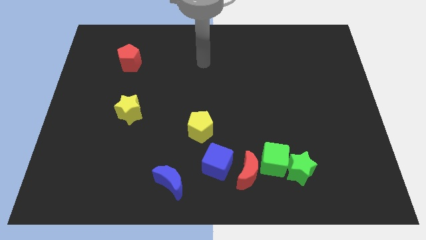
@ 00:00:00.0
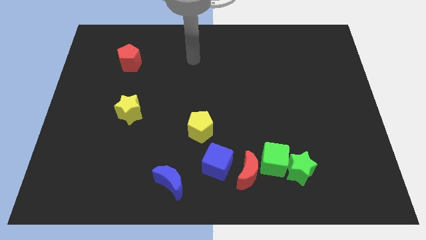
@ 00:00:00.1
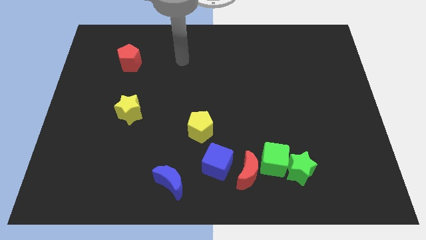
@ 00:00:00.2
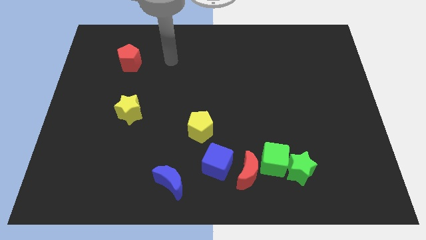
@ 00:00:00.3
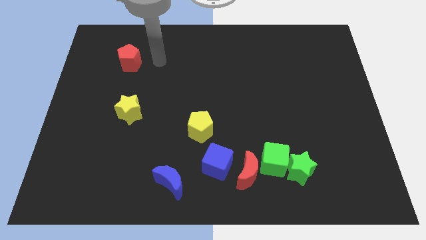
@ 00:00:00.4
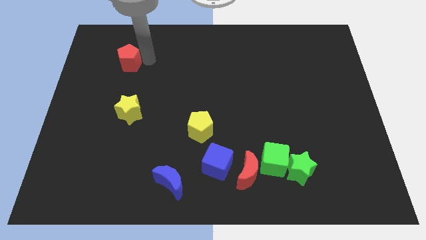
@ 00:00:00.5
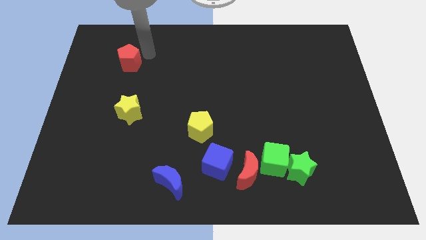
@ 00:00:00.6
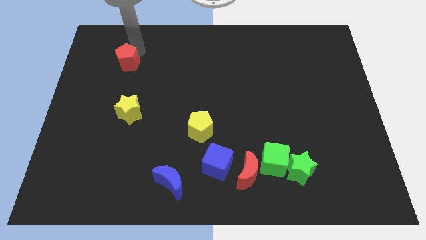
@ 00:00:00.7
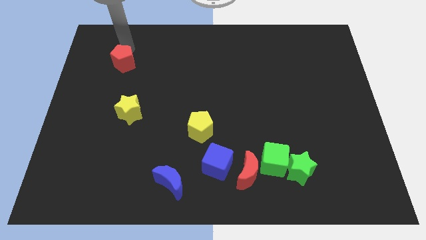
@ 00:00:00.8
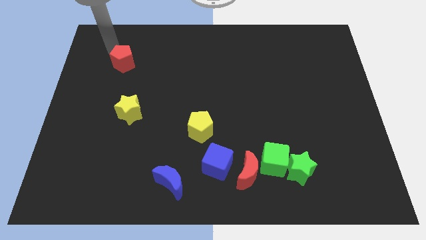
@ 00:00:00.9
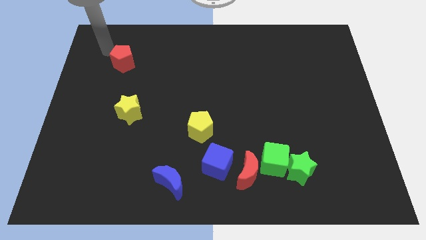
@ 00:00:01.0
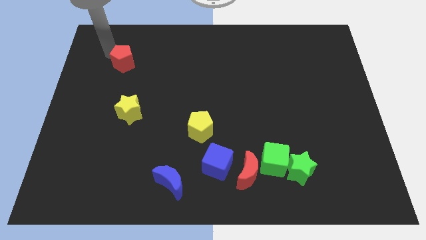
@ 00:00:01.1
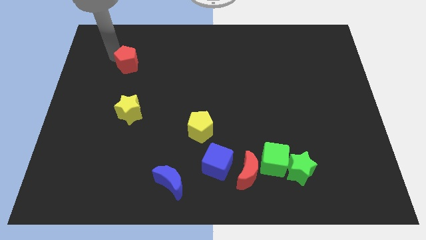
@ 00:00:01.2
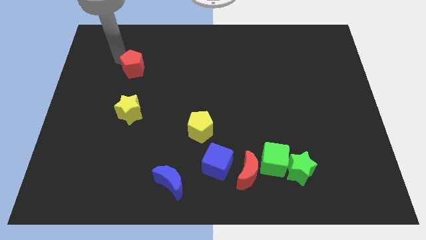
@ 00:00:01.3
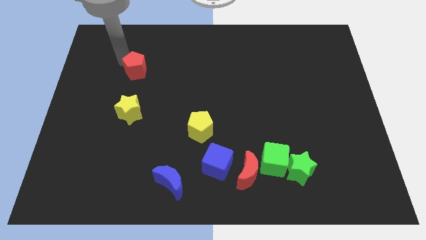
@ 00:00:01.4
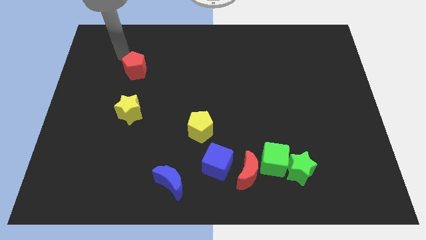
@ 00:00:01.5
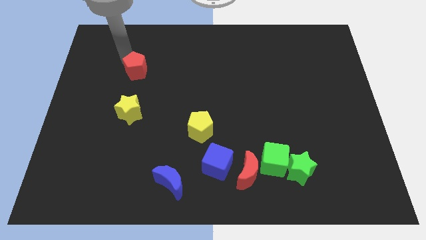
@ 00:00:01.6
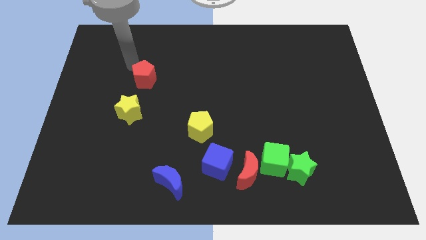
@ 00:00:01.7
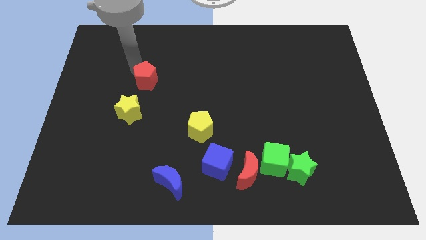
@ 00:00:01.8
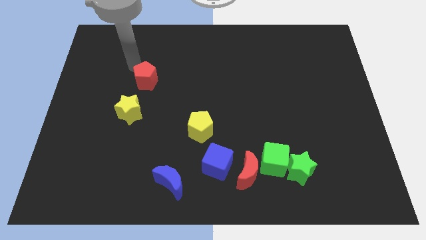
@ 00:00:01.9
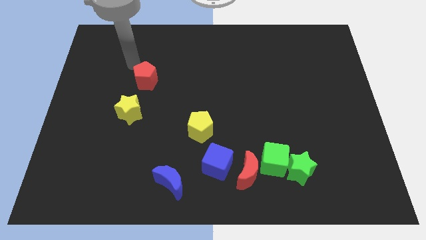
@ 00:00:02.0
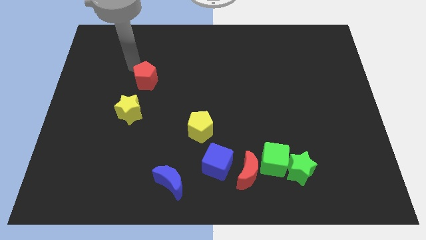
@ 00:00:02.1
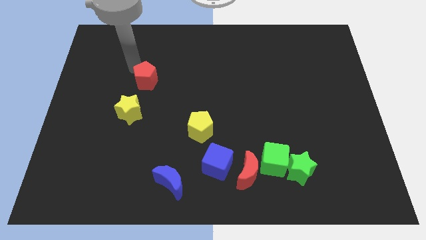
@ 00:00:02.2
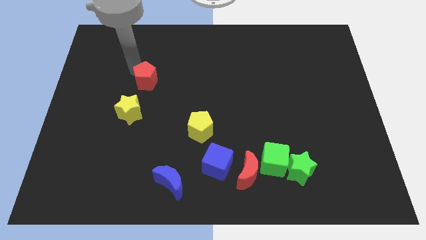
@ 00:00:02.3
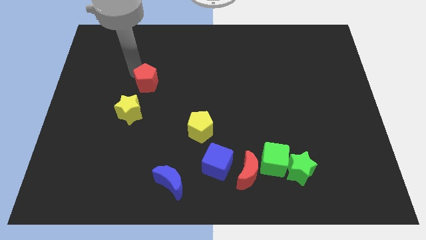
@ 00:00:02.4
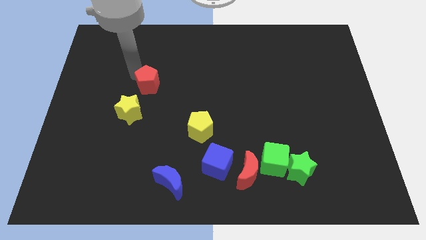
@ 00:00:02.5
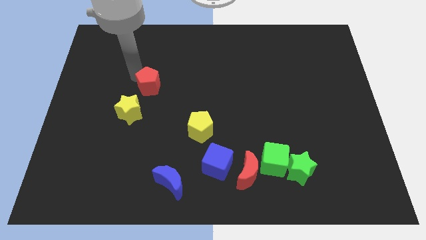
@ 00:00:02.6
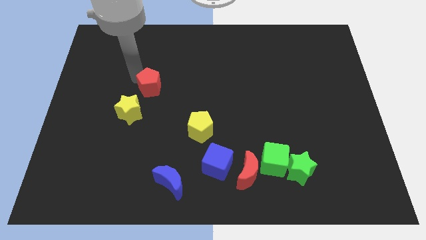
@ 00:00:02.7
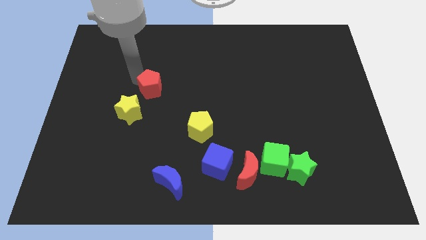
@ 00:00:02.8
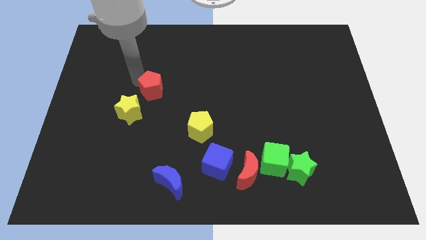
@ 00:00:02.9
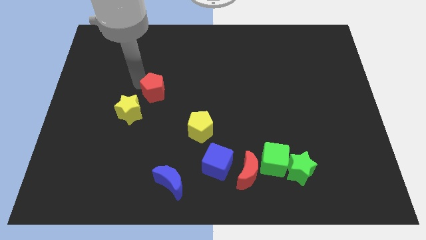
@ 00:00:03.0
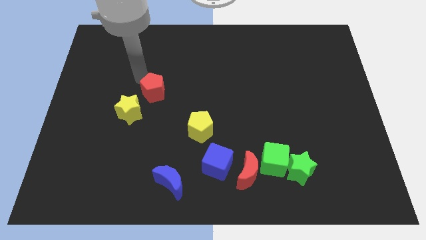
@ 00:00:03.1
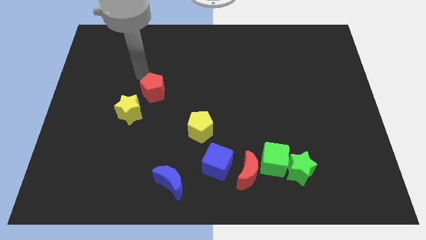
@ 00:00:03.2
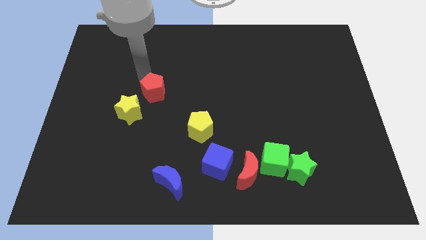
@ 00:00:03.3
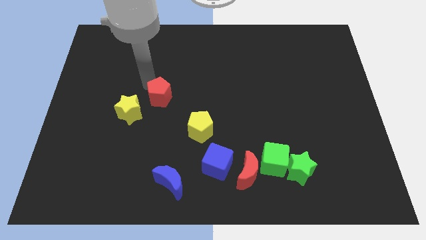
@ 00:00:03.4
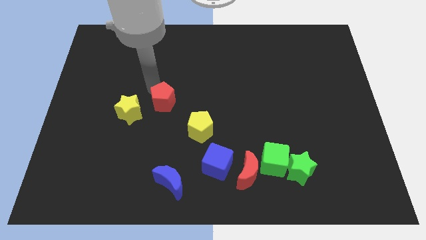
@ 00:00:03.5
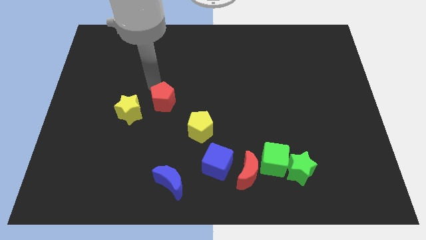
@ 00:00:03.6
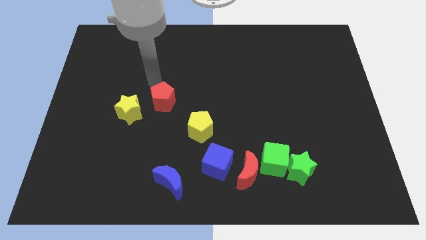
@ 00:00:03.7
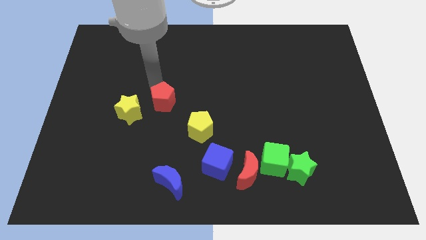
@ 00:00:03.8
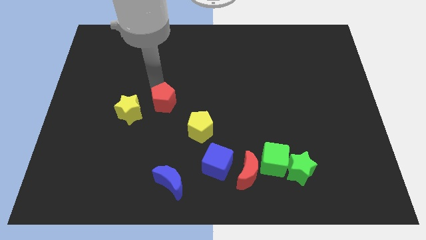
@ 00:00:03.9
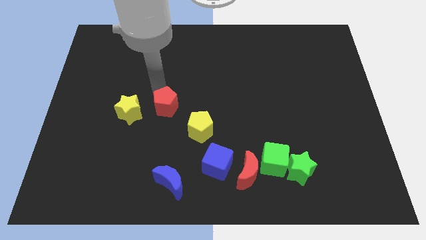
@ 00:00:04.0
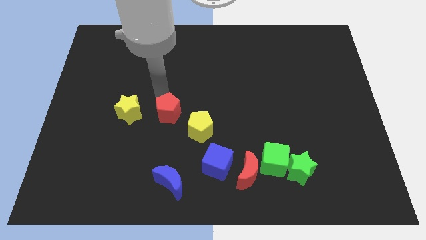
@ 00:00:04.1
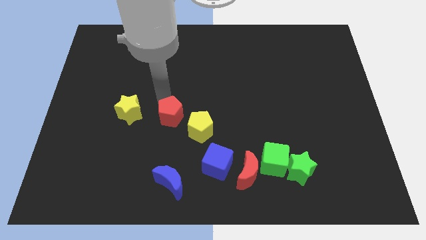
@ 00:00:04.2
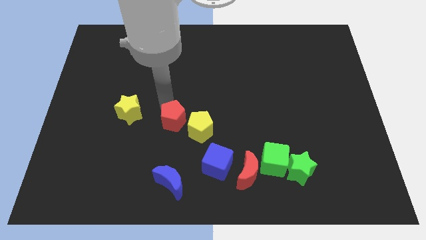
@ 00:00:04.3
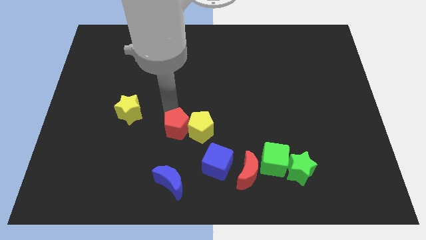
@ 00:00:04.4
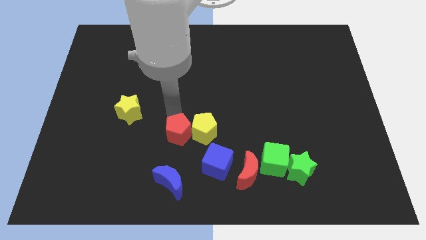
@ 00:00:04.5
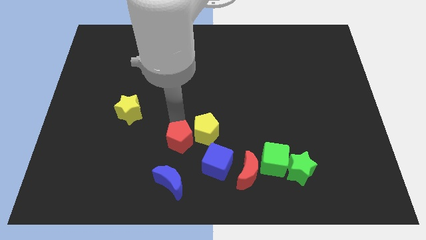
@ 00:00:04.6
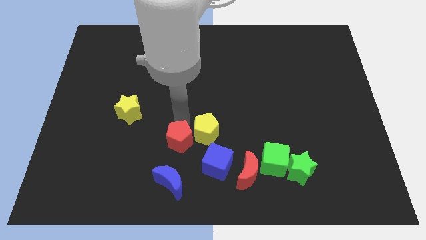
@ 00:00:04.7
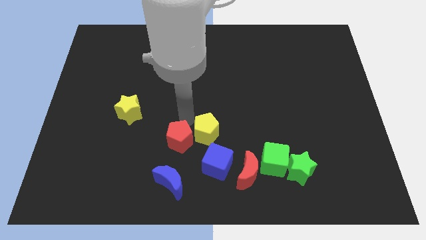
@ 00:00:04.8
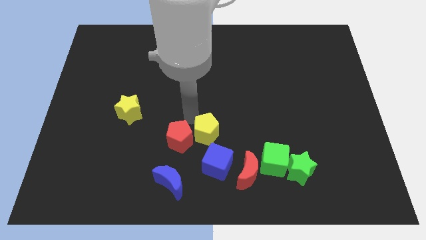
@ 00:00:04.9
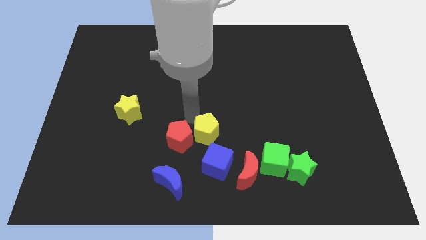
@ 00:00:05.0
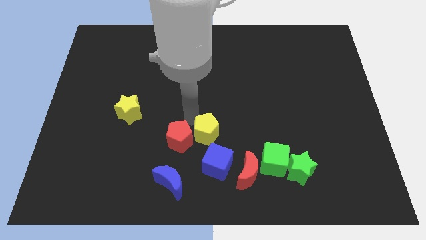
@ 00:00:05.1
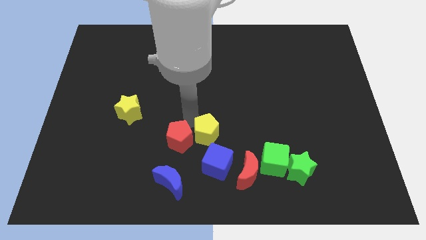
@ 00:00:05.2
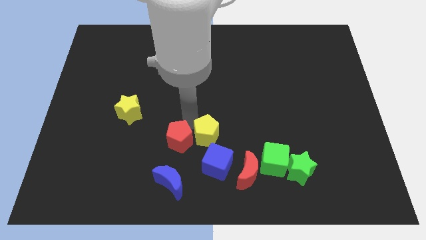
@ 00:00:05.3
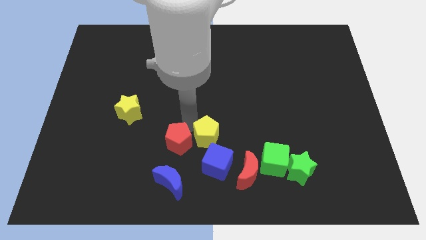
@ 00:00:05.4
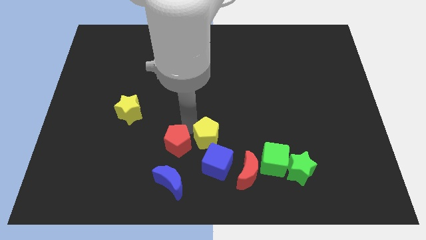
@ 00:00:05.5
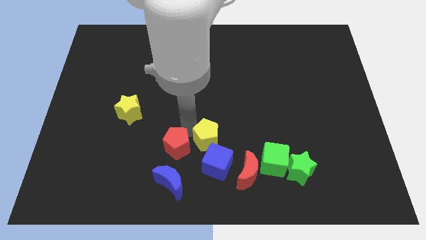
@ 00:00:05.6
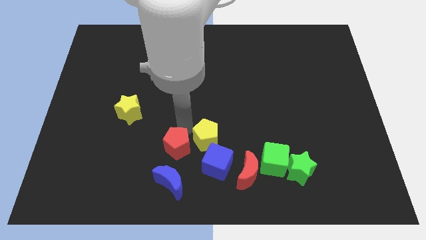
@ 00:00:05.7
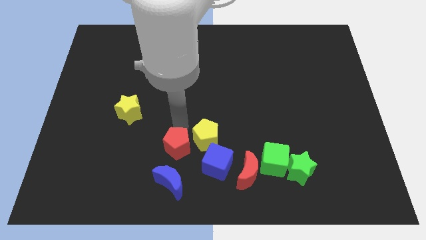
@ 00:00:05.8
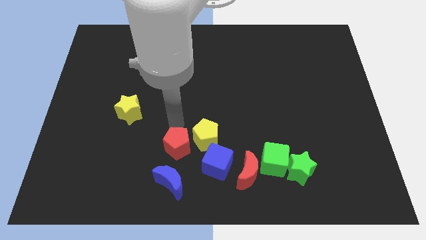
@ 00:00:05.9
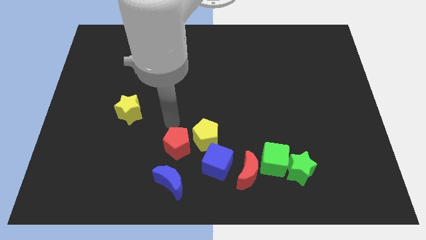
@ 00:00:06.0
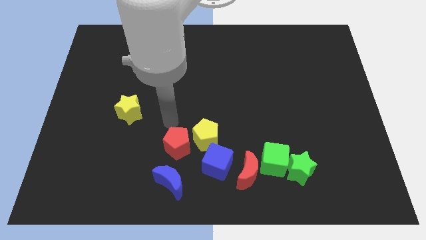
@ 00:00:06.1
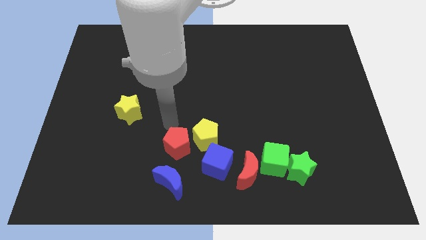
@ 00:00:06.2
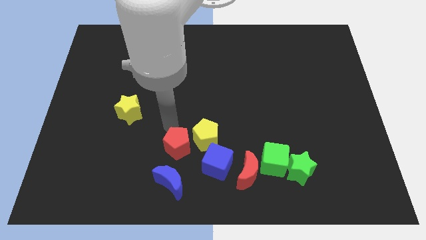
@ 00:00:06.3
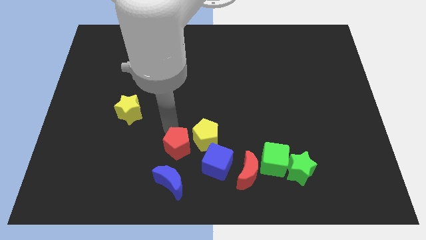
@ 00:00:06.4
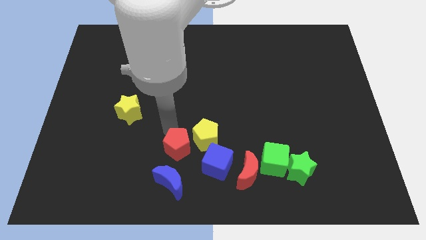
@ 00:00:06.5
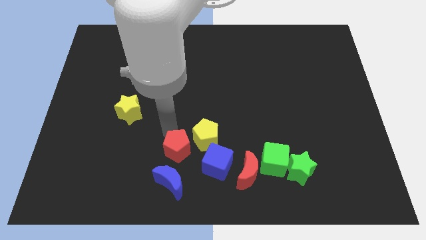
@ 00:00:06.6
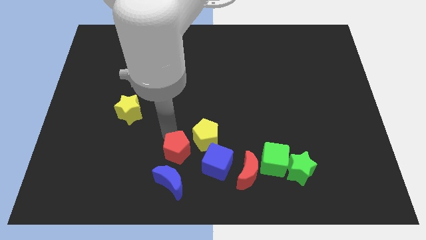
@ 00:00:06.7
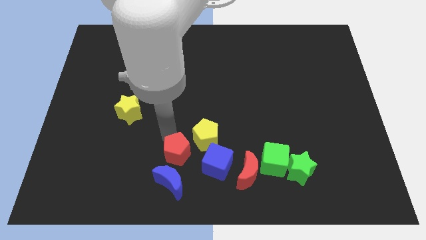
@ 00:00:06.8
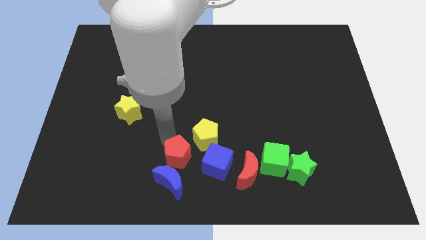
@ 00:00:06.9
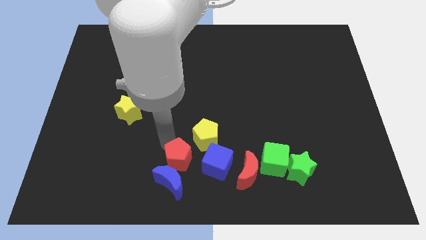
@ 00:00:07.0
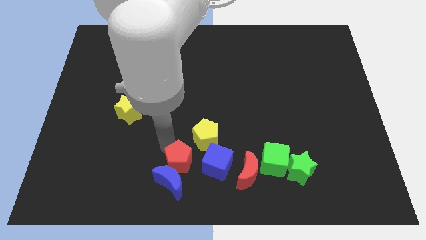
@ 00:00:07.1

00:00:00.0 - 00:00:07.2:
put the red pentagon to the bottom side
